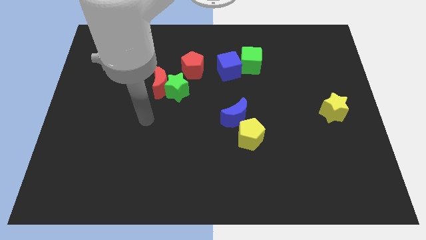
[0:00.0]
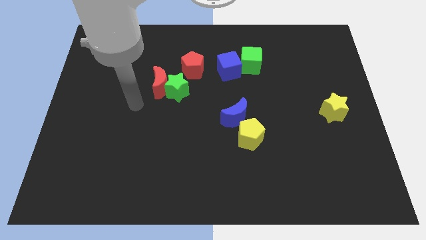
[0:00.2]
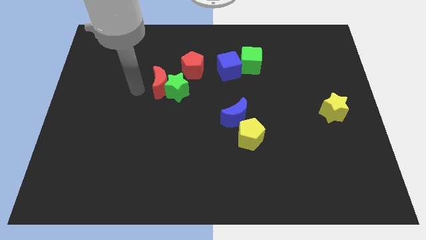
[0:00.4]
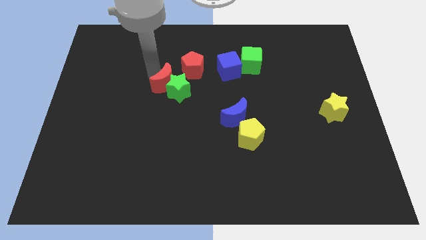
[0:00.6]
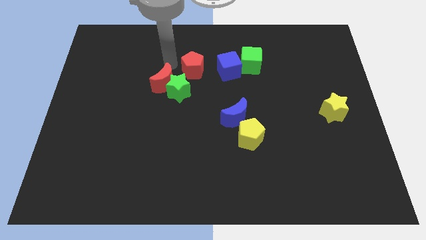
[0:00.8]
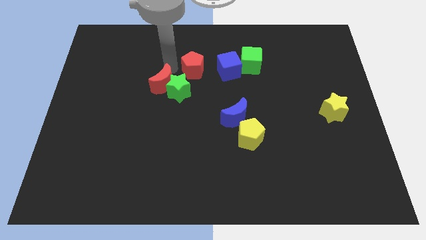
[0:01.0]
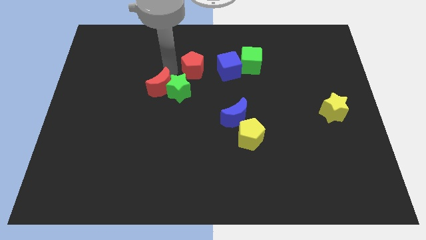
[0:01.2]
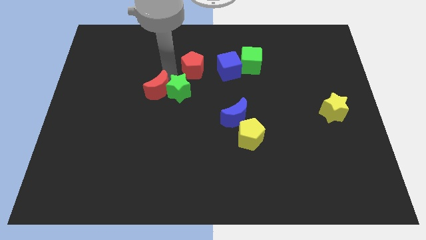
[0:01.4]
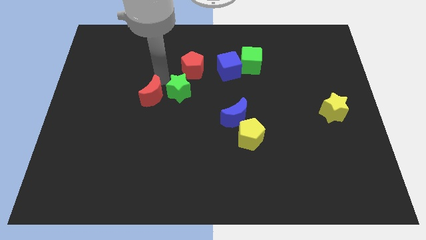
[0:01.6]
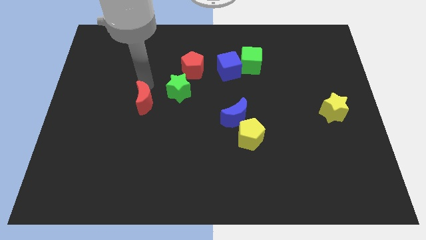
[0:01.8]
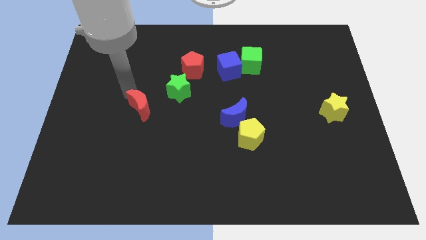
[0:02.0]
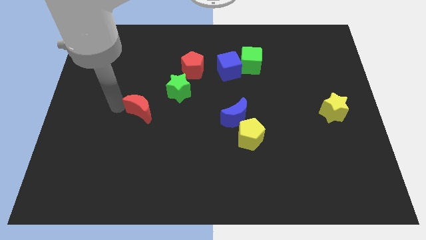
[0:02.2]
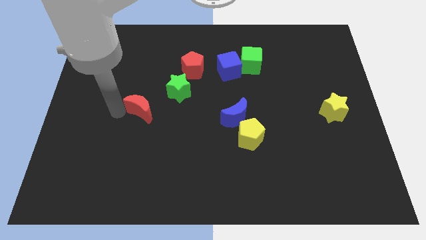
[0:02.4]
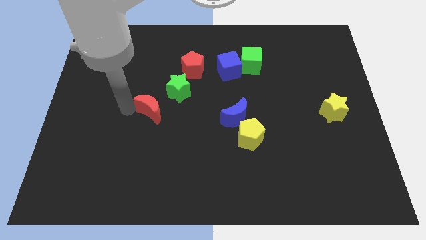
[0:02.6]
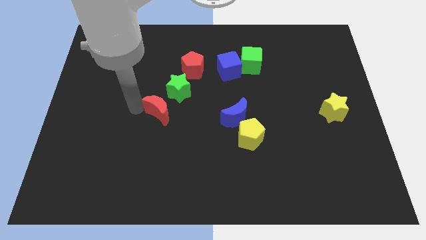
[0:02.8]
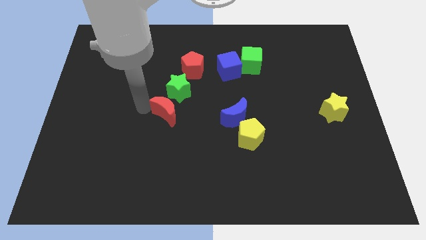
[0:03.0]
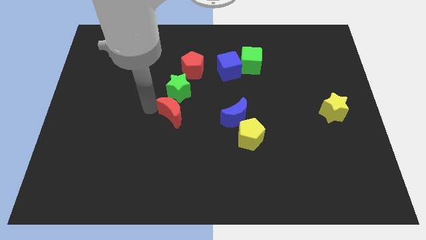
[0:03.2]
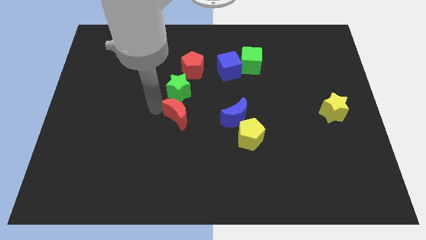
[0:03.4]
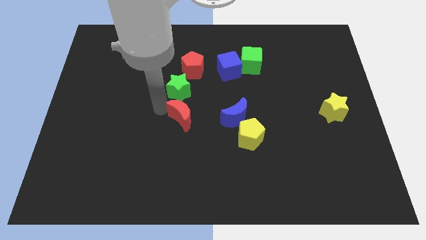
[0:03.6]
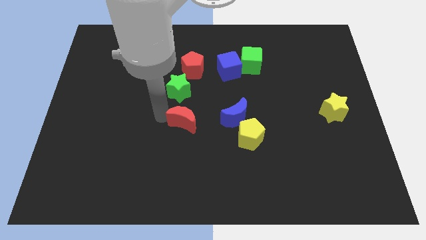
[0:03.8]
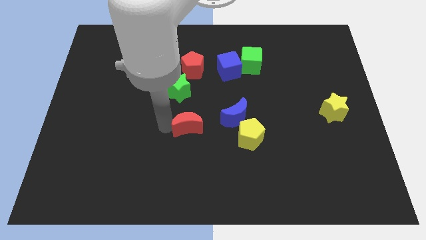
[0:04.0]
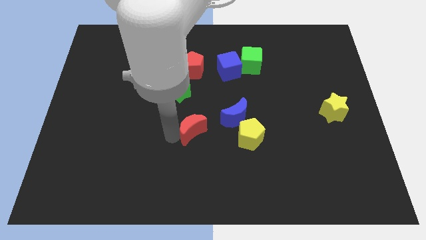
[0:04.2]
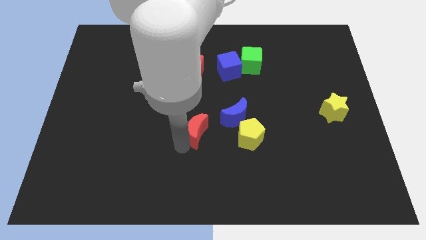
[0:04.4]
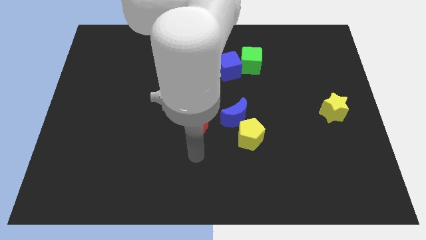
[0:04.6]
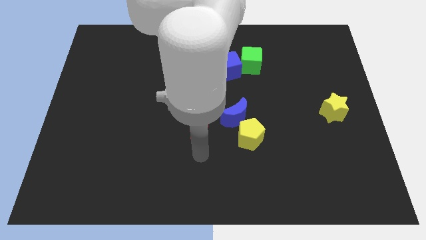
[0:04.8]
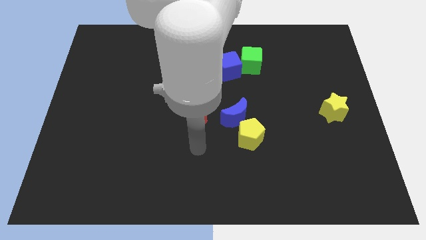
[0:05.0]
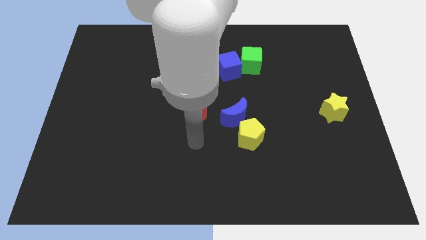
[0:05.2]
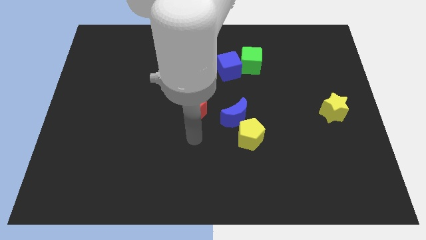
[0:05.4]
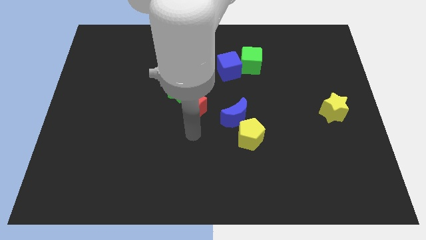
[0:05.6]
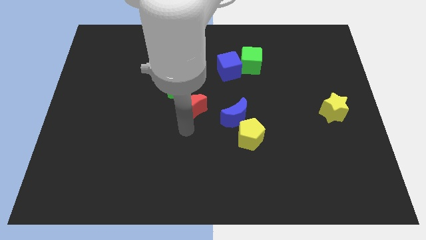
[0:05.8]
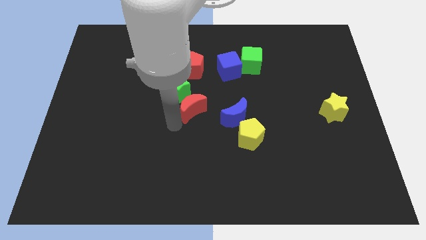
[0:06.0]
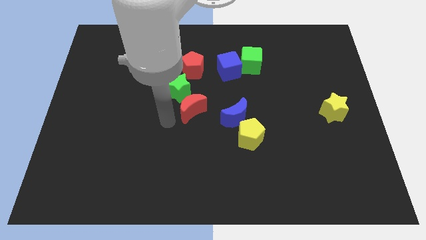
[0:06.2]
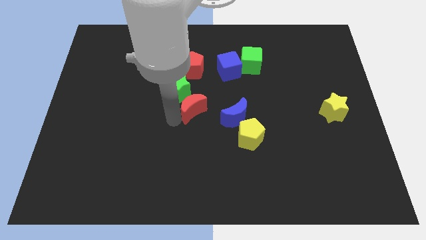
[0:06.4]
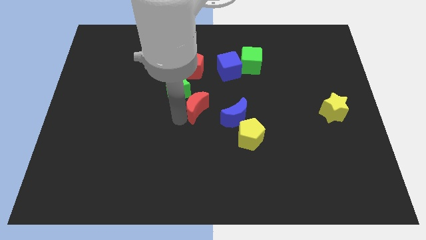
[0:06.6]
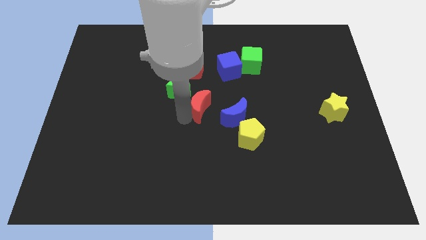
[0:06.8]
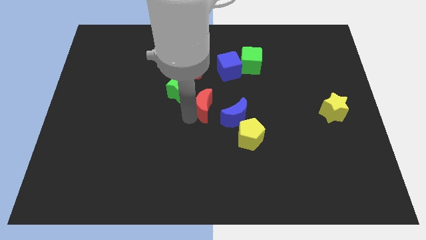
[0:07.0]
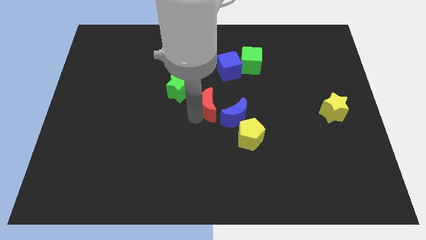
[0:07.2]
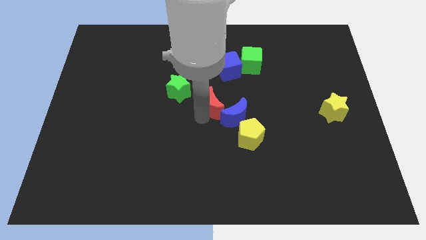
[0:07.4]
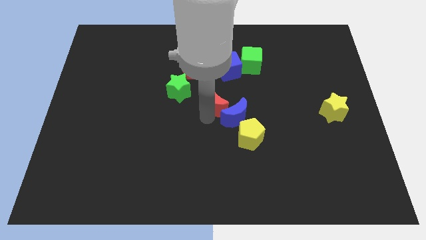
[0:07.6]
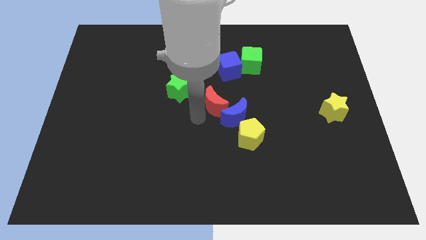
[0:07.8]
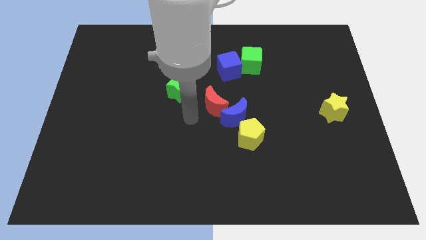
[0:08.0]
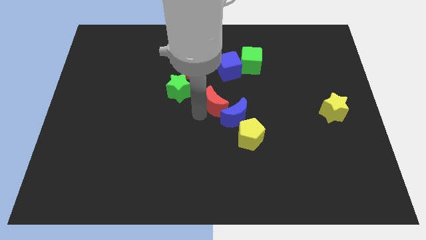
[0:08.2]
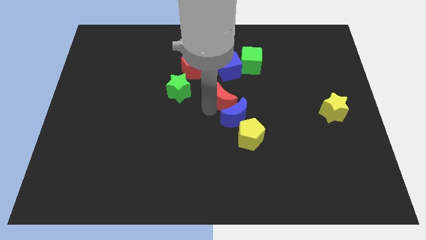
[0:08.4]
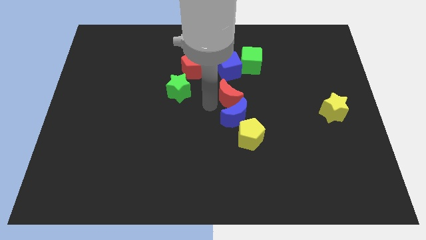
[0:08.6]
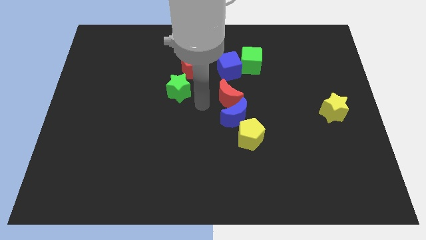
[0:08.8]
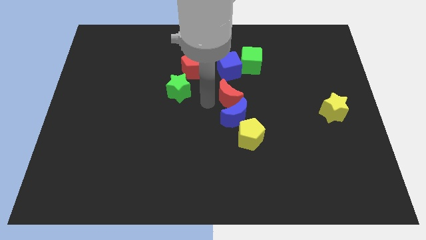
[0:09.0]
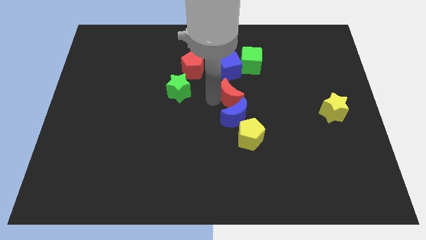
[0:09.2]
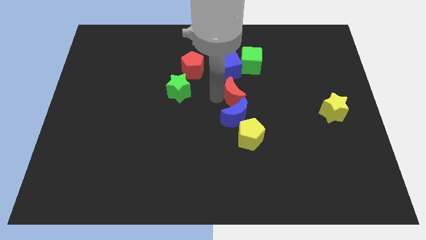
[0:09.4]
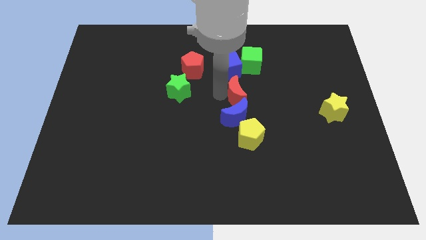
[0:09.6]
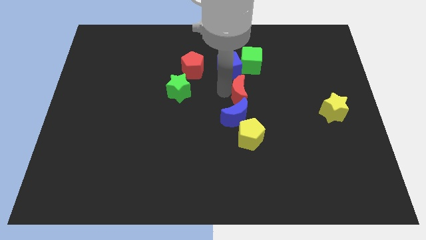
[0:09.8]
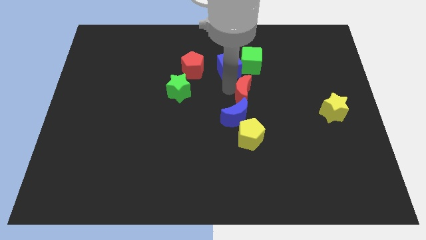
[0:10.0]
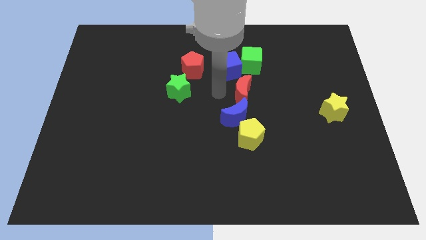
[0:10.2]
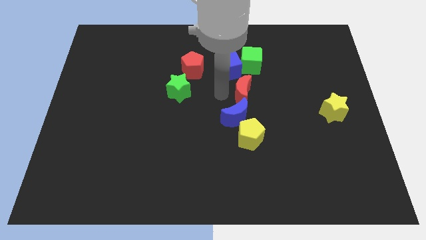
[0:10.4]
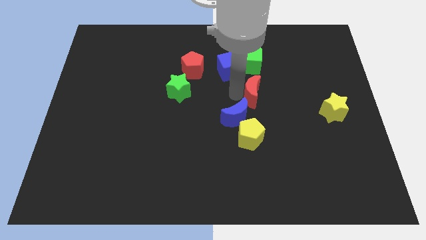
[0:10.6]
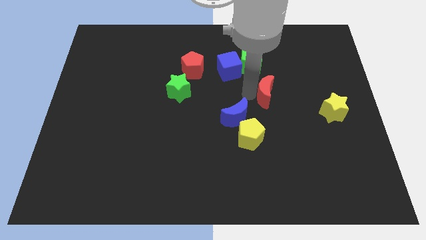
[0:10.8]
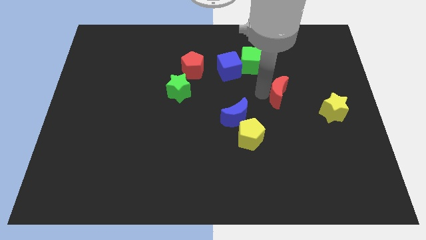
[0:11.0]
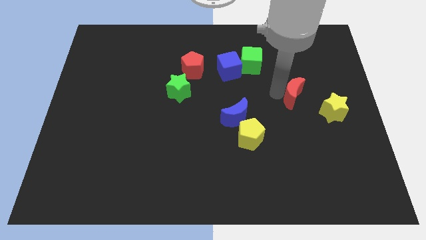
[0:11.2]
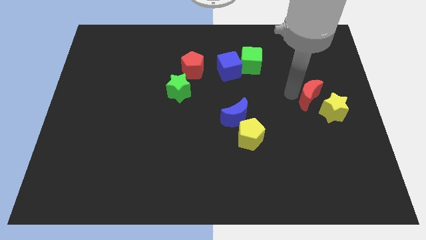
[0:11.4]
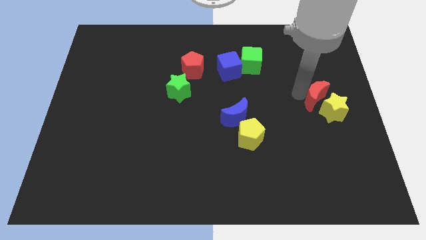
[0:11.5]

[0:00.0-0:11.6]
slide the red moon close to the yellow star

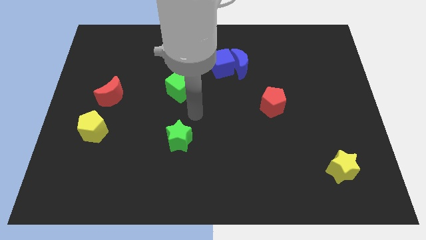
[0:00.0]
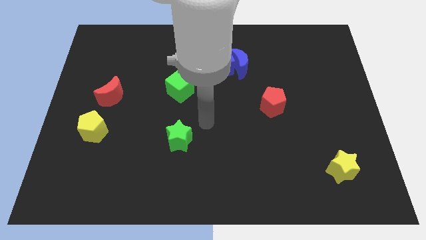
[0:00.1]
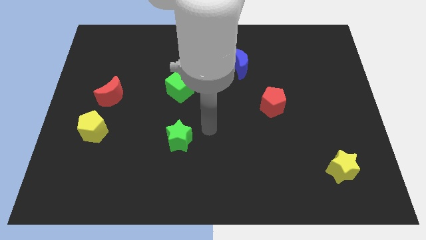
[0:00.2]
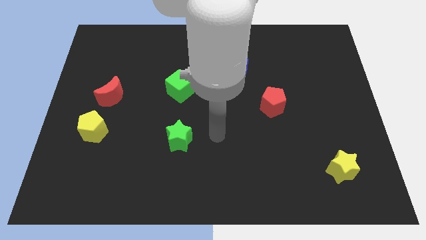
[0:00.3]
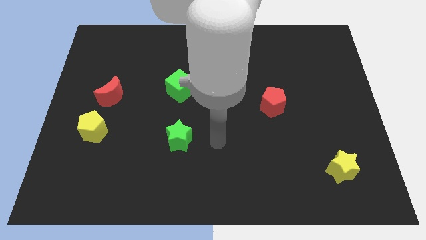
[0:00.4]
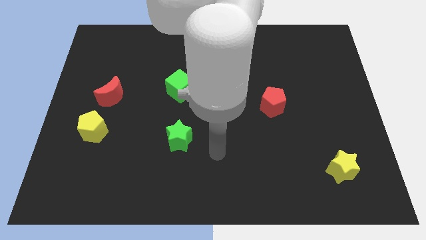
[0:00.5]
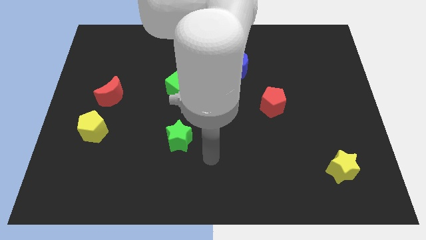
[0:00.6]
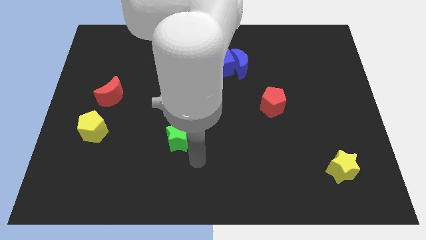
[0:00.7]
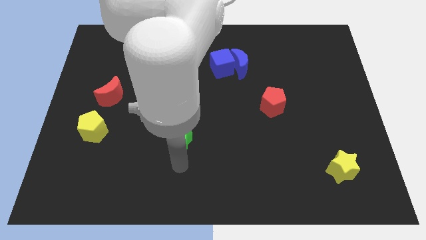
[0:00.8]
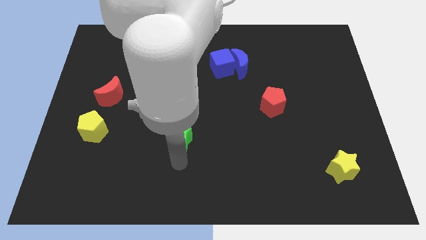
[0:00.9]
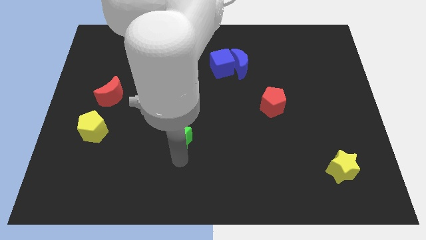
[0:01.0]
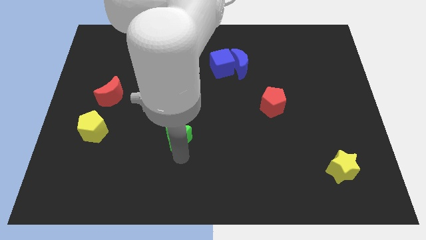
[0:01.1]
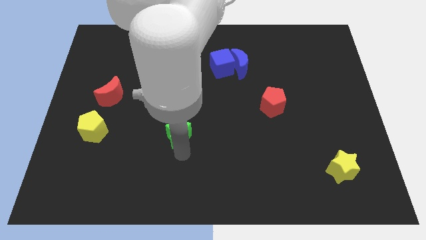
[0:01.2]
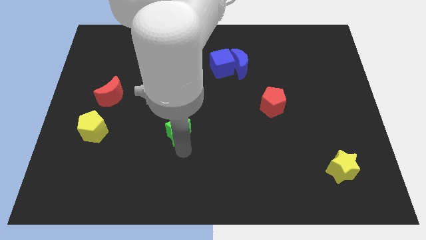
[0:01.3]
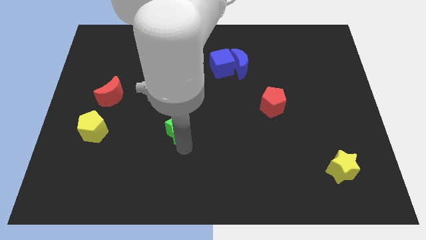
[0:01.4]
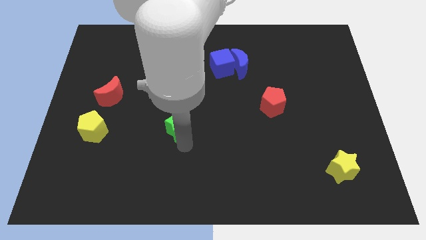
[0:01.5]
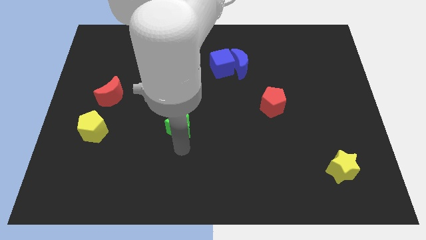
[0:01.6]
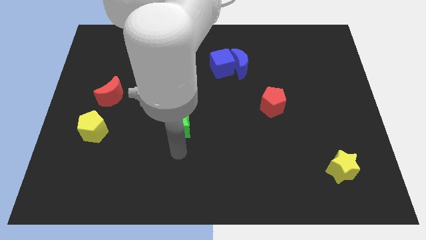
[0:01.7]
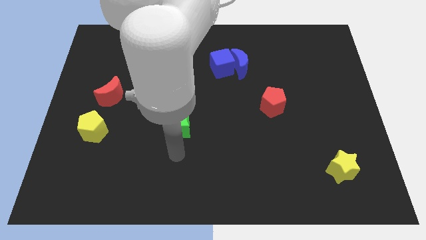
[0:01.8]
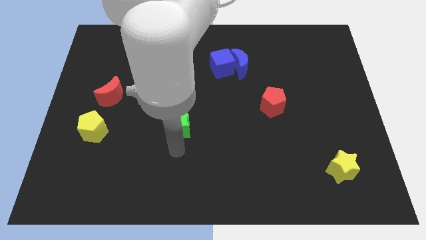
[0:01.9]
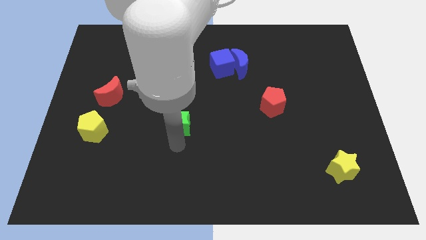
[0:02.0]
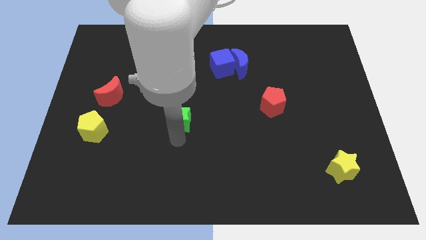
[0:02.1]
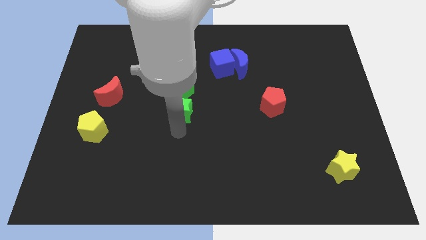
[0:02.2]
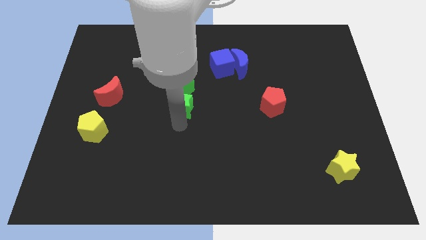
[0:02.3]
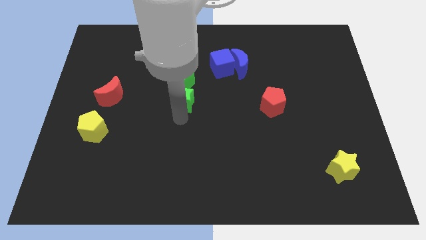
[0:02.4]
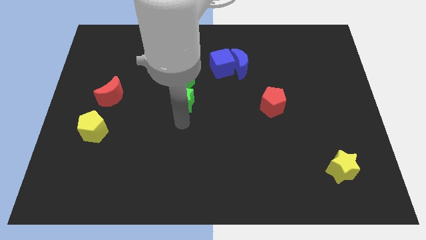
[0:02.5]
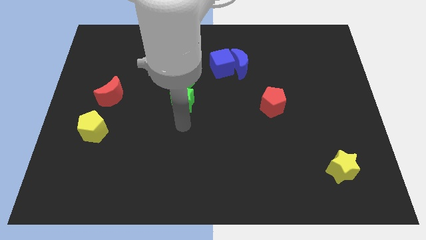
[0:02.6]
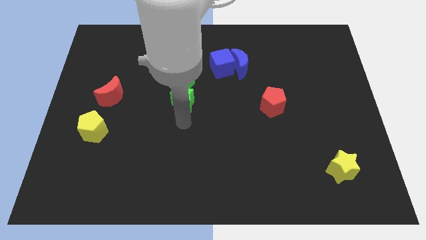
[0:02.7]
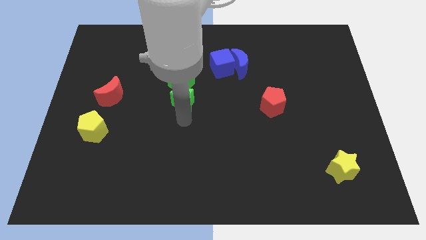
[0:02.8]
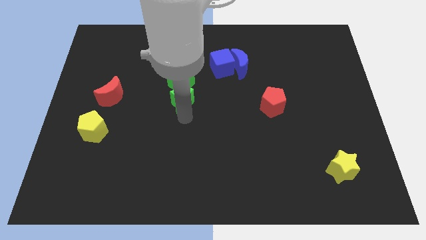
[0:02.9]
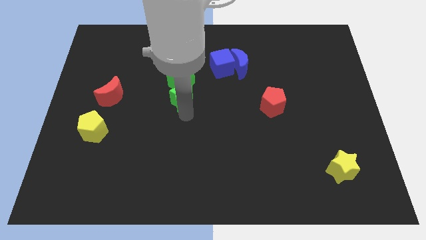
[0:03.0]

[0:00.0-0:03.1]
put the green star towards the green cube
